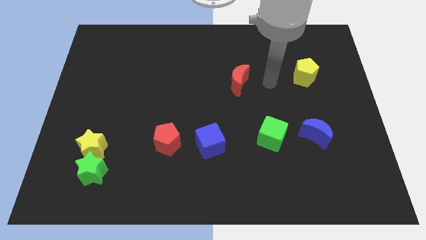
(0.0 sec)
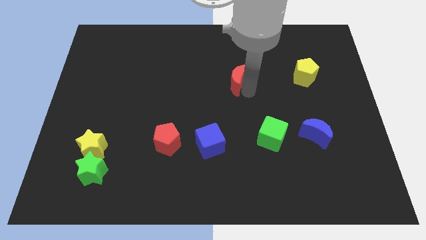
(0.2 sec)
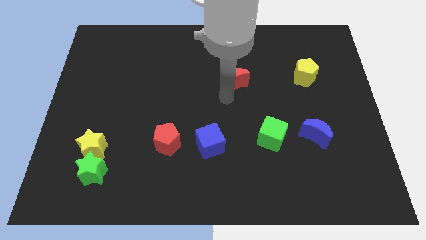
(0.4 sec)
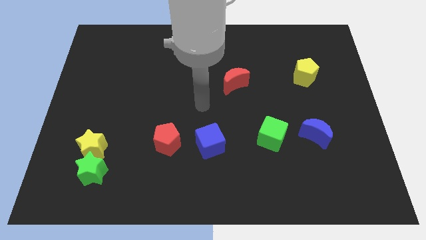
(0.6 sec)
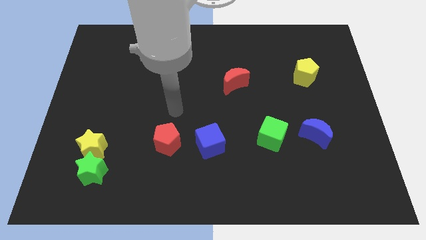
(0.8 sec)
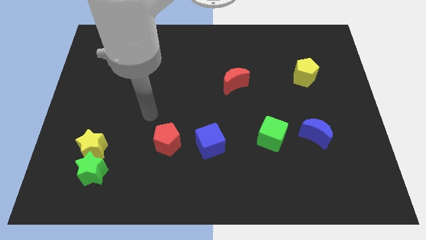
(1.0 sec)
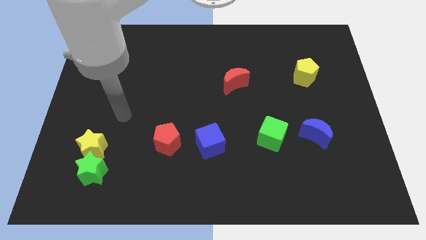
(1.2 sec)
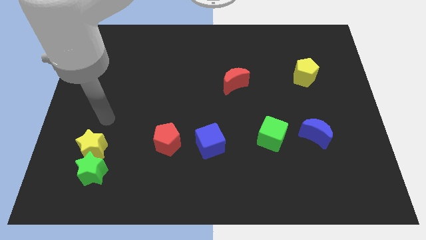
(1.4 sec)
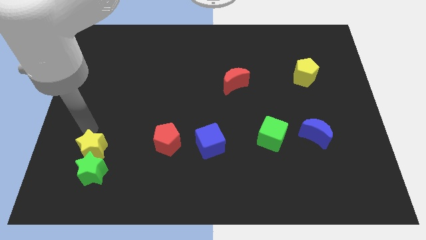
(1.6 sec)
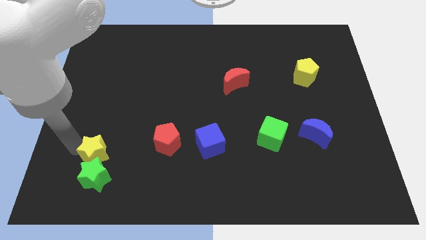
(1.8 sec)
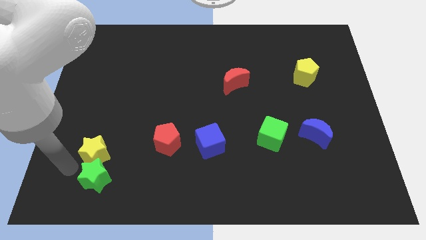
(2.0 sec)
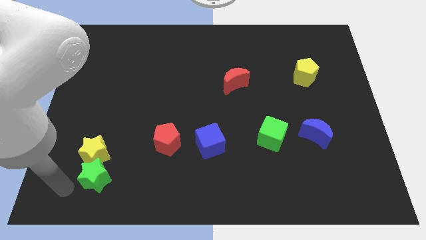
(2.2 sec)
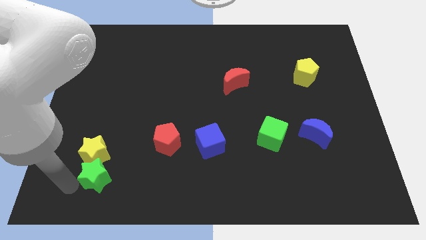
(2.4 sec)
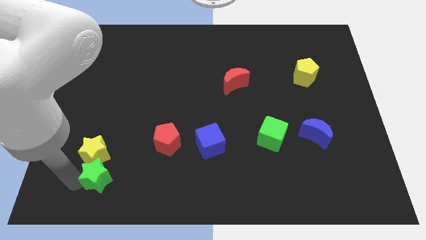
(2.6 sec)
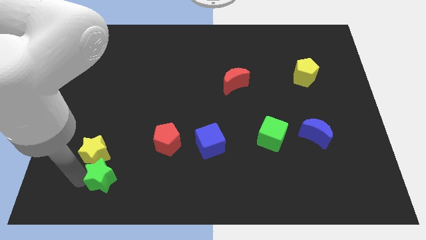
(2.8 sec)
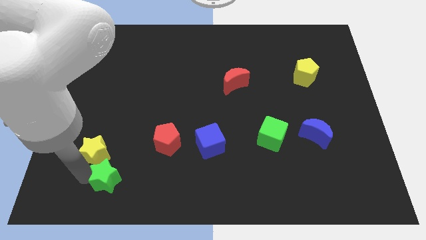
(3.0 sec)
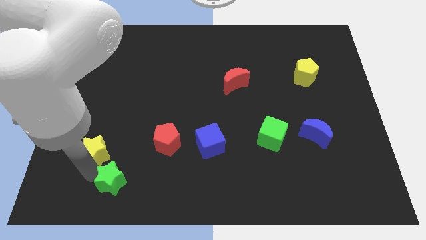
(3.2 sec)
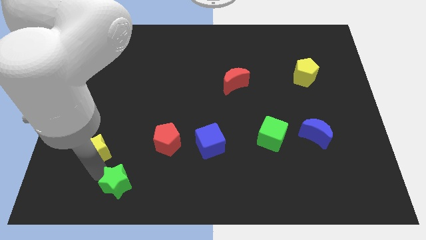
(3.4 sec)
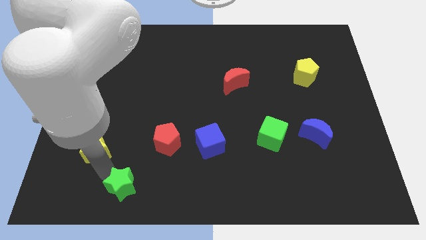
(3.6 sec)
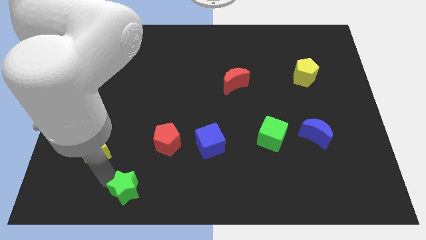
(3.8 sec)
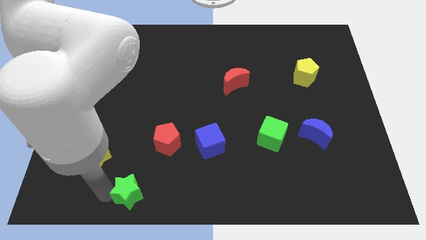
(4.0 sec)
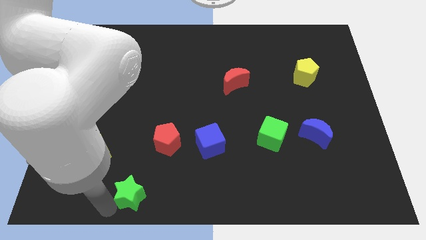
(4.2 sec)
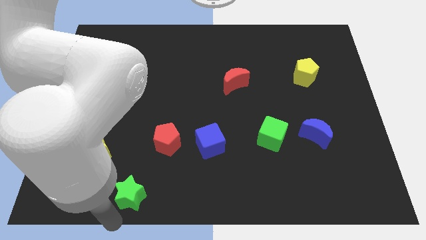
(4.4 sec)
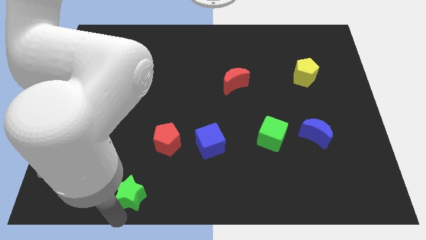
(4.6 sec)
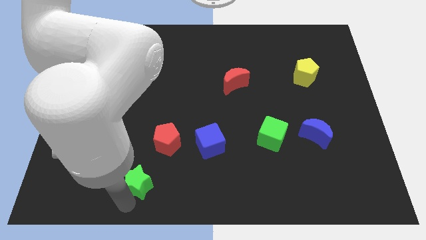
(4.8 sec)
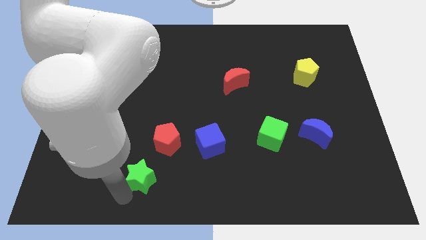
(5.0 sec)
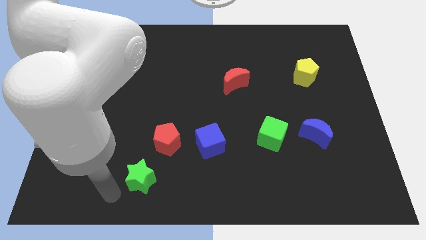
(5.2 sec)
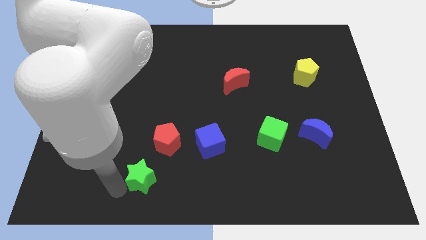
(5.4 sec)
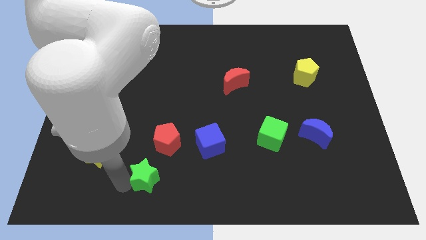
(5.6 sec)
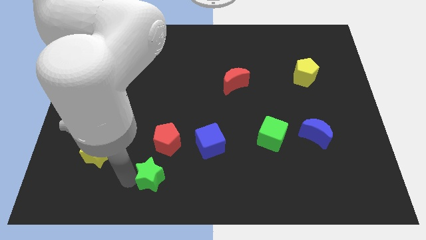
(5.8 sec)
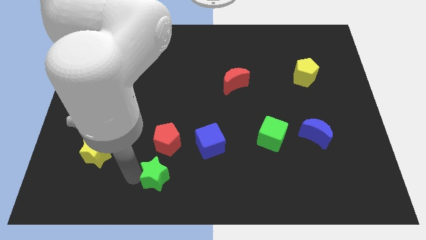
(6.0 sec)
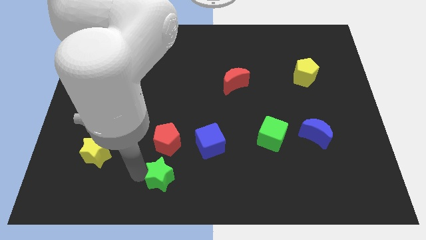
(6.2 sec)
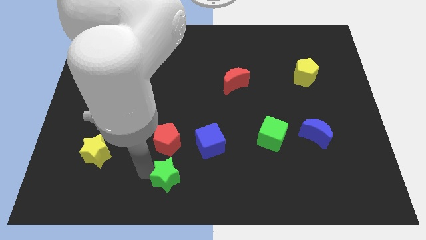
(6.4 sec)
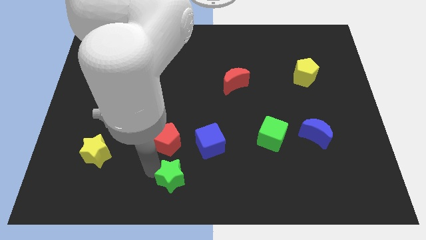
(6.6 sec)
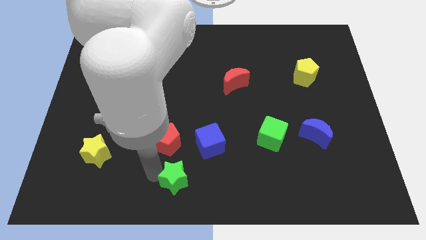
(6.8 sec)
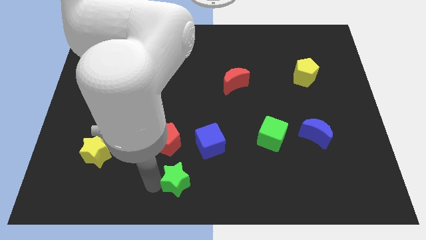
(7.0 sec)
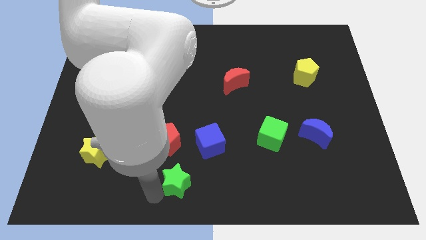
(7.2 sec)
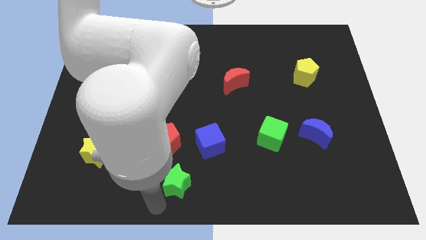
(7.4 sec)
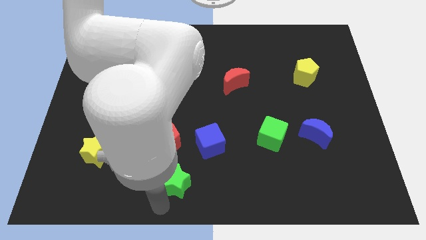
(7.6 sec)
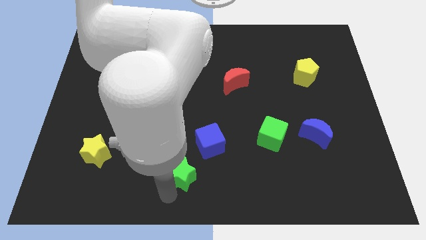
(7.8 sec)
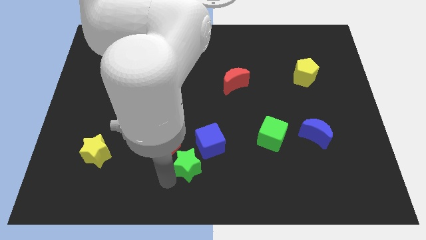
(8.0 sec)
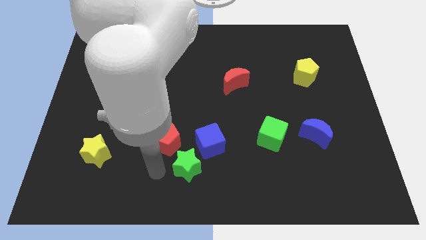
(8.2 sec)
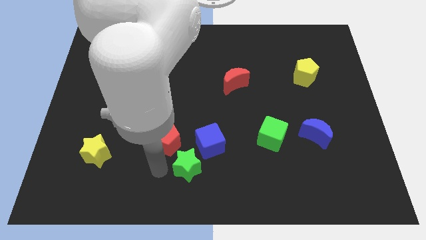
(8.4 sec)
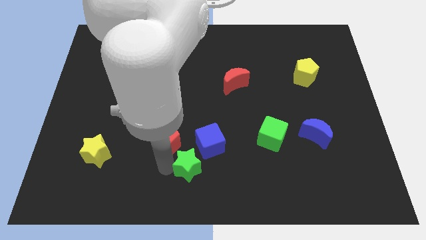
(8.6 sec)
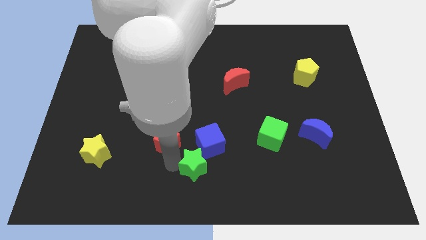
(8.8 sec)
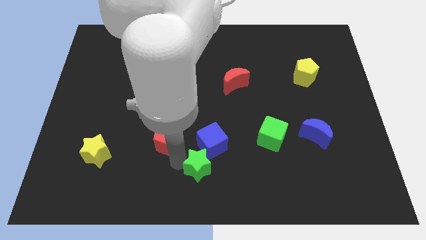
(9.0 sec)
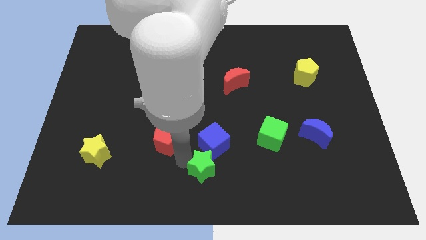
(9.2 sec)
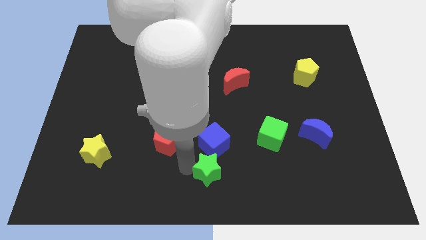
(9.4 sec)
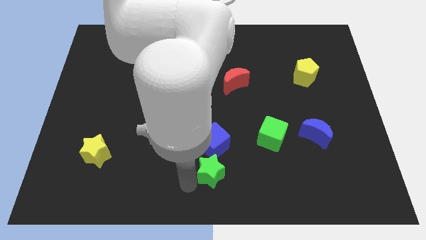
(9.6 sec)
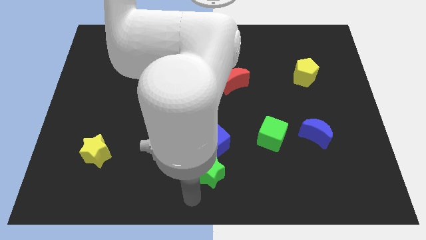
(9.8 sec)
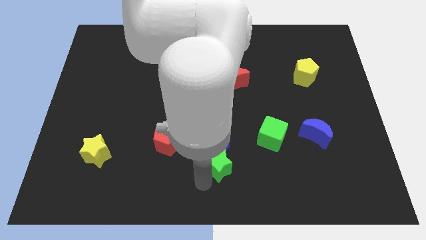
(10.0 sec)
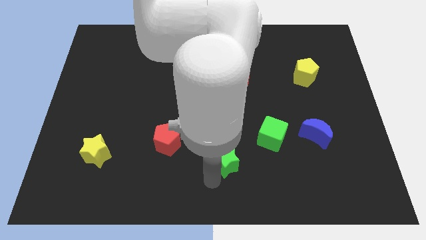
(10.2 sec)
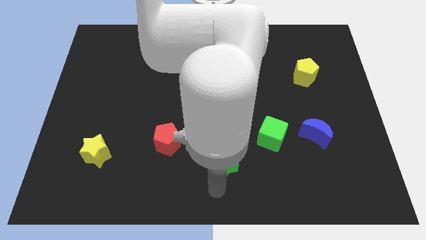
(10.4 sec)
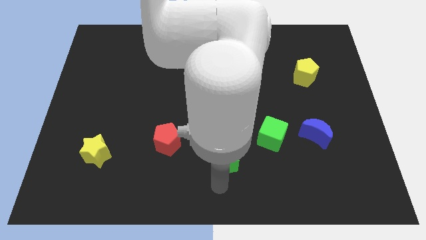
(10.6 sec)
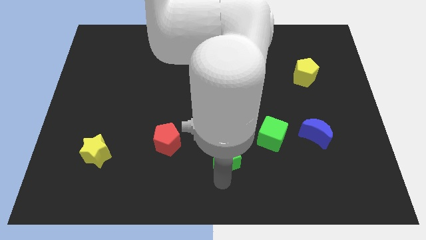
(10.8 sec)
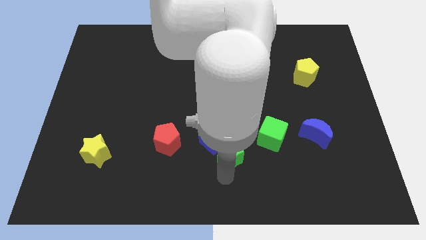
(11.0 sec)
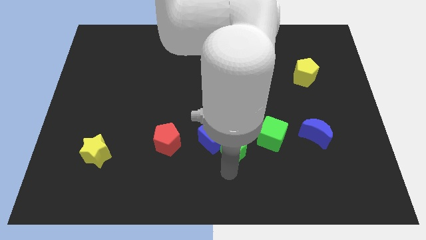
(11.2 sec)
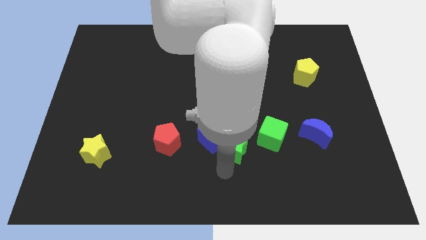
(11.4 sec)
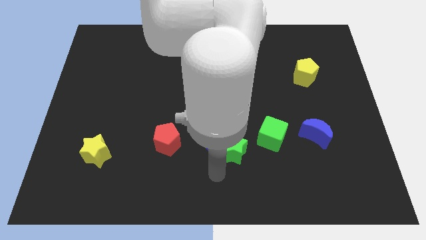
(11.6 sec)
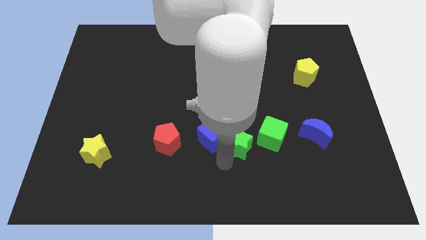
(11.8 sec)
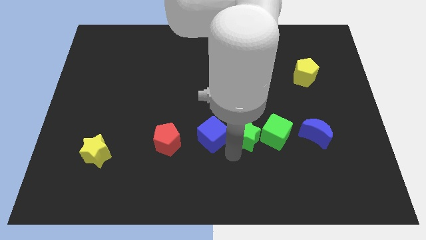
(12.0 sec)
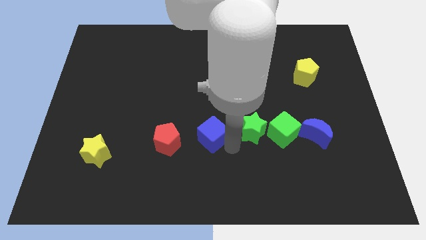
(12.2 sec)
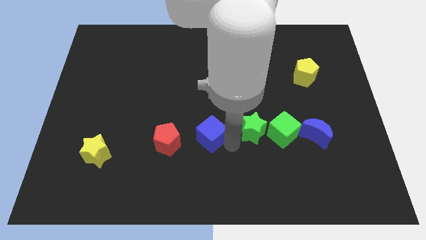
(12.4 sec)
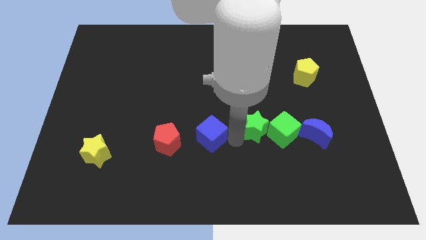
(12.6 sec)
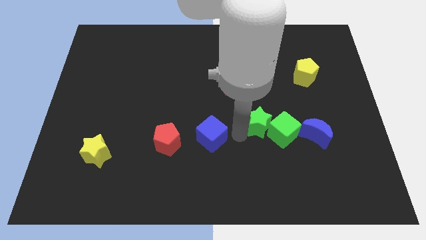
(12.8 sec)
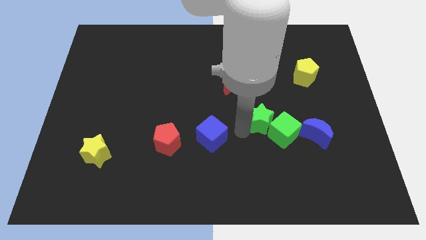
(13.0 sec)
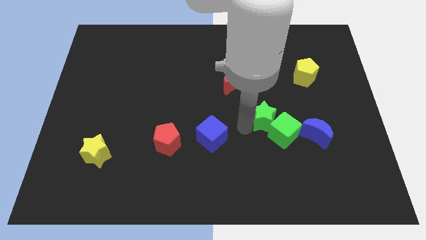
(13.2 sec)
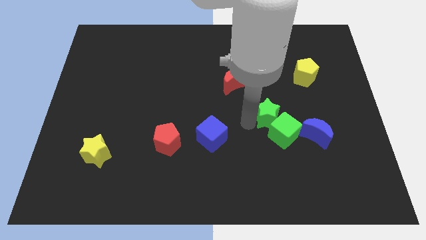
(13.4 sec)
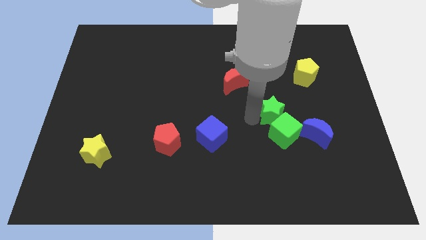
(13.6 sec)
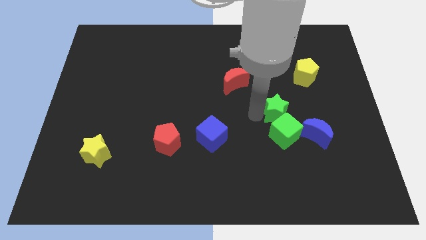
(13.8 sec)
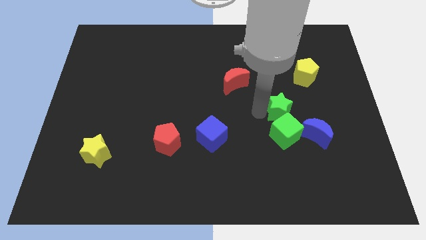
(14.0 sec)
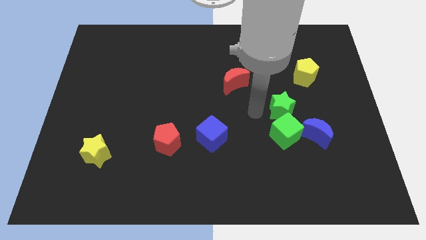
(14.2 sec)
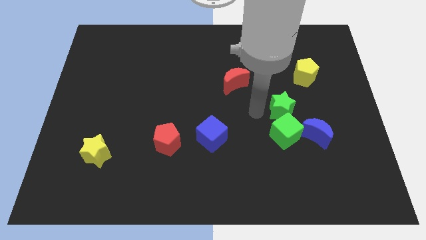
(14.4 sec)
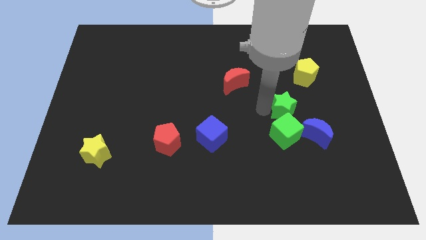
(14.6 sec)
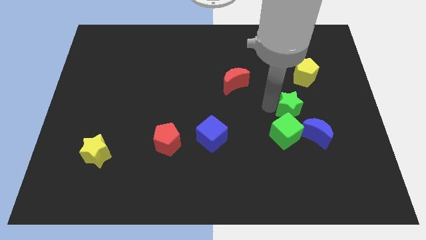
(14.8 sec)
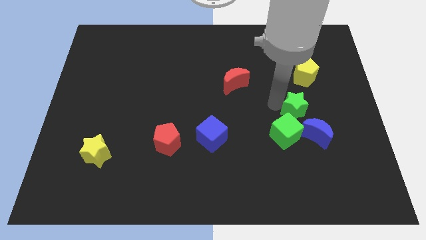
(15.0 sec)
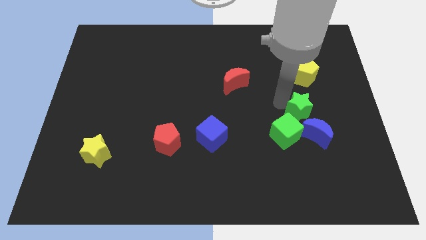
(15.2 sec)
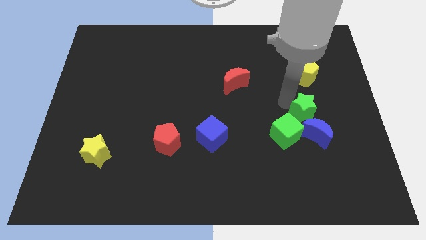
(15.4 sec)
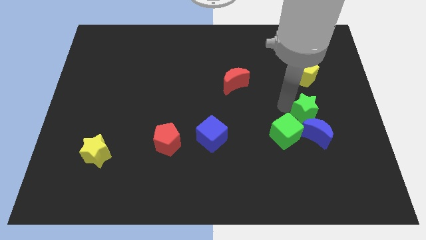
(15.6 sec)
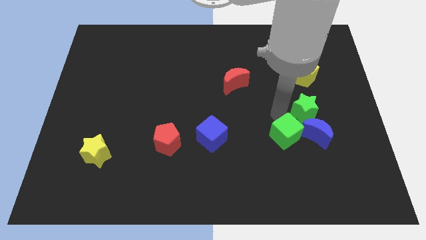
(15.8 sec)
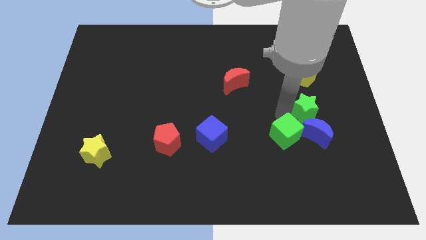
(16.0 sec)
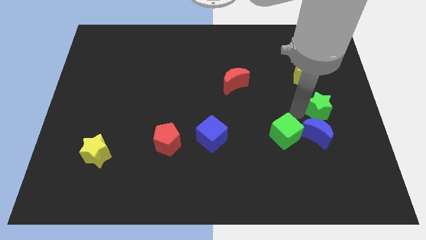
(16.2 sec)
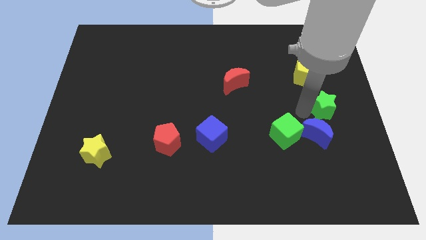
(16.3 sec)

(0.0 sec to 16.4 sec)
move the green star to the right side
